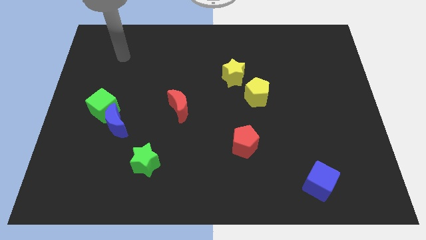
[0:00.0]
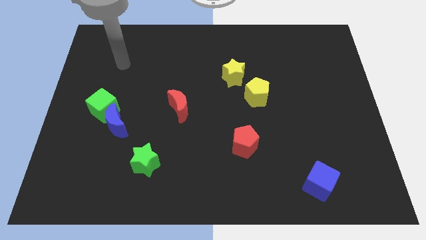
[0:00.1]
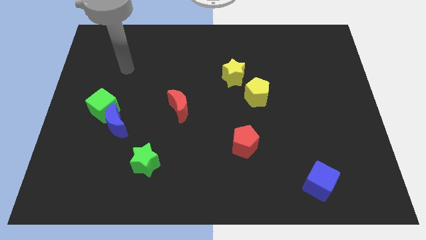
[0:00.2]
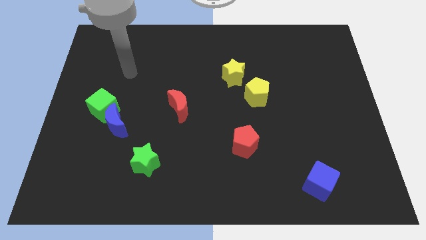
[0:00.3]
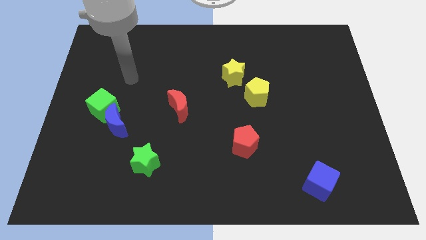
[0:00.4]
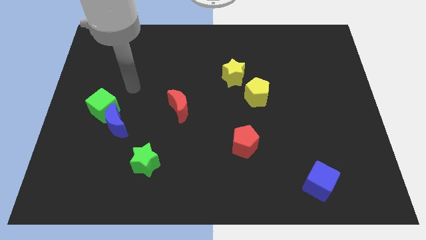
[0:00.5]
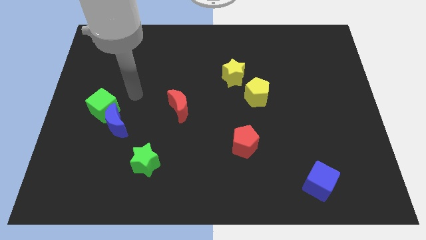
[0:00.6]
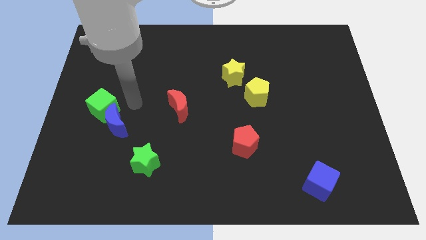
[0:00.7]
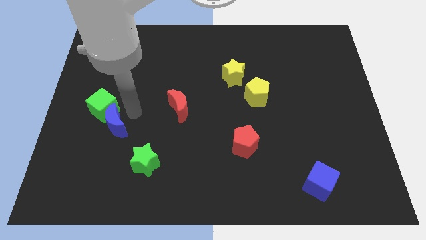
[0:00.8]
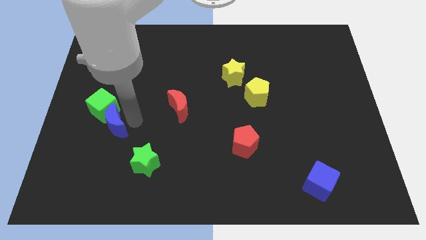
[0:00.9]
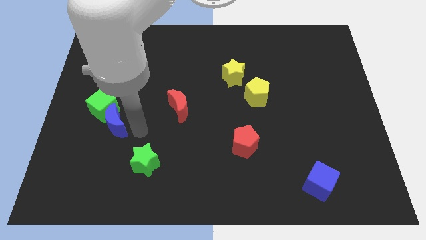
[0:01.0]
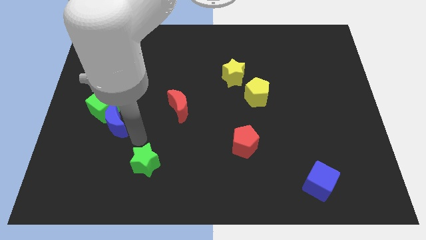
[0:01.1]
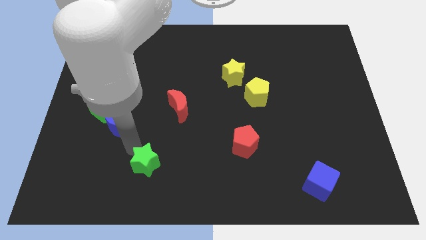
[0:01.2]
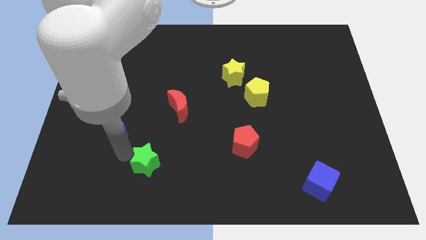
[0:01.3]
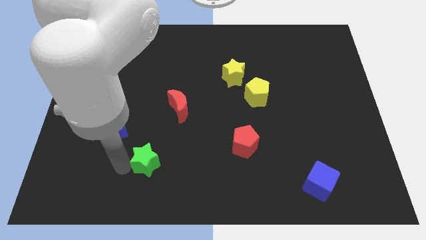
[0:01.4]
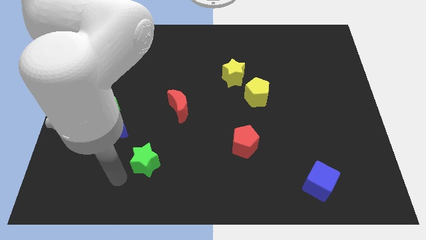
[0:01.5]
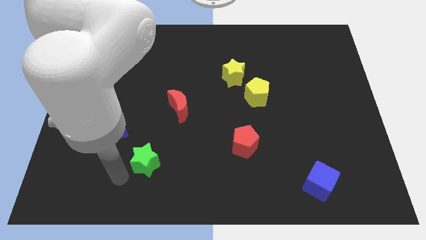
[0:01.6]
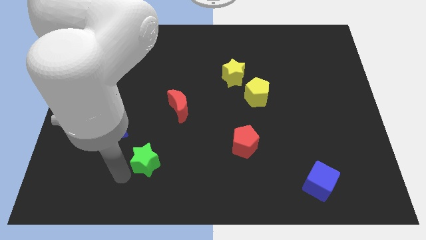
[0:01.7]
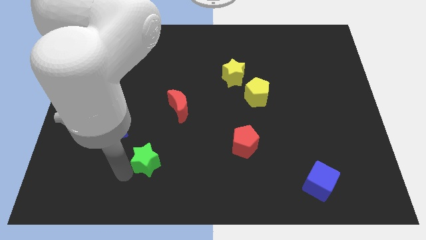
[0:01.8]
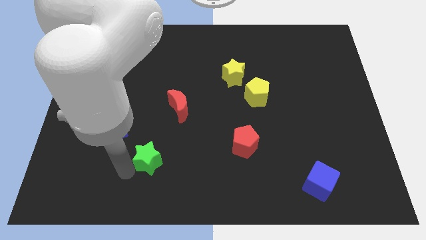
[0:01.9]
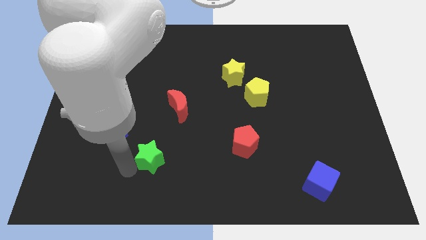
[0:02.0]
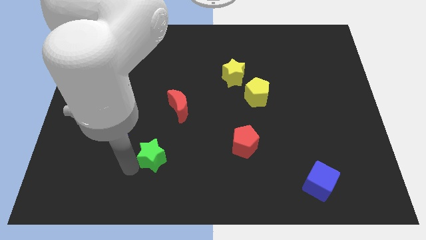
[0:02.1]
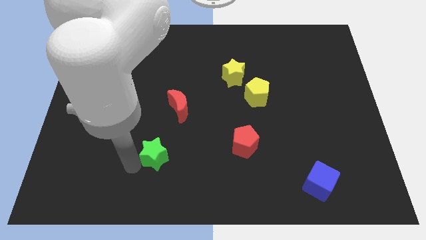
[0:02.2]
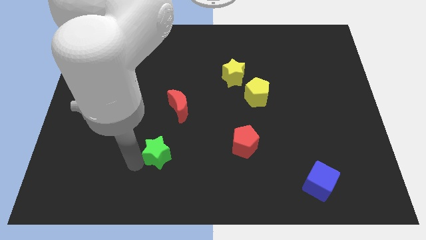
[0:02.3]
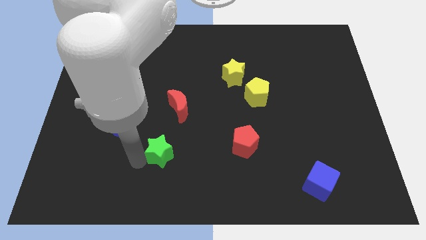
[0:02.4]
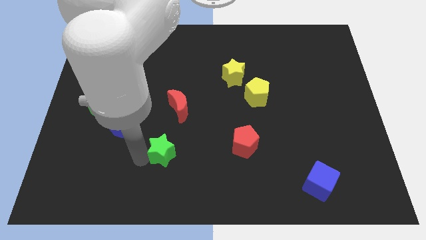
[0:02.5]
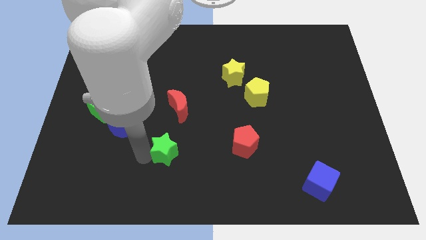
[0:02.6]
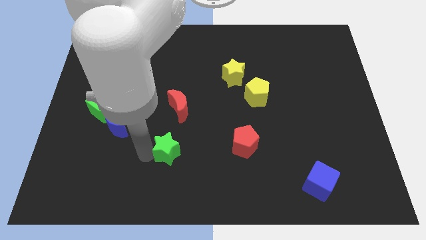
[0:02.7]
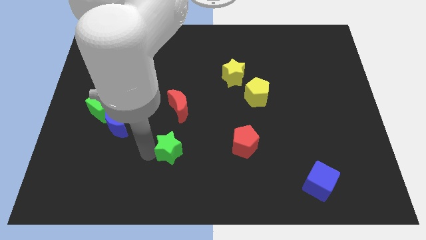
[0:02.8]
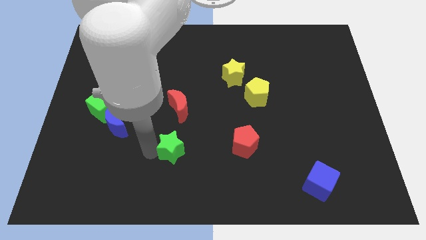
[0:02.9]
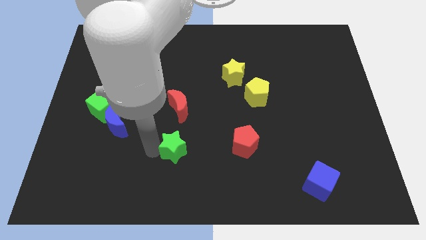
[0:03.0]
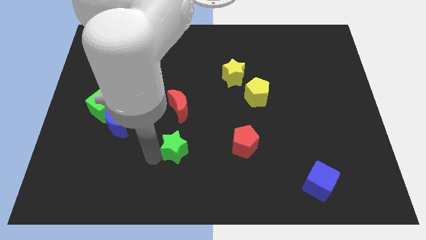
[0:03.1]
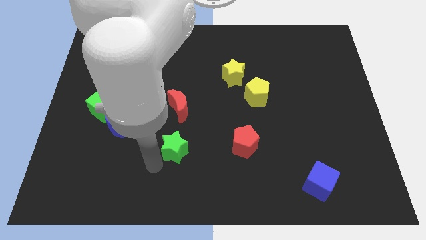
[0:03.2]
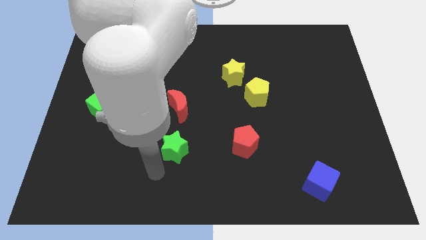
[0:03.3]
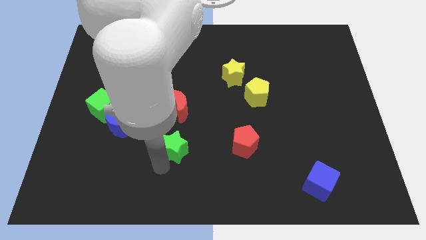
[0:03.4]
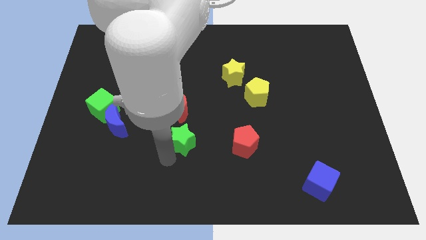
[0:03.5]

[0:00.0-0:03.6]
move the green star upwards and then right a little bit

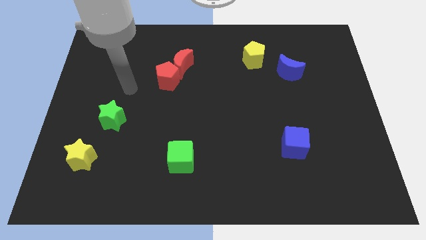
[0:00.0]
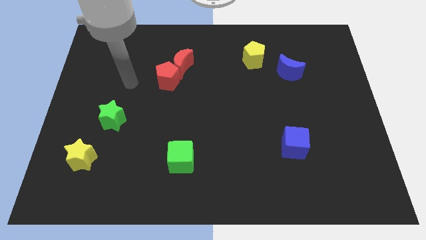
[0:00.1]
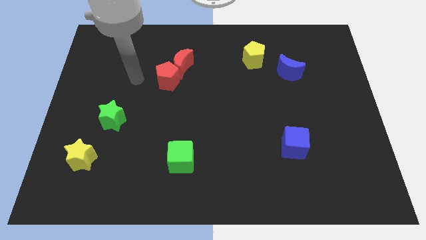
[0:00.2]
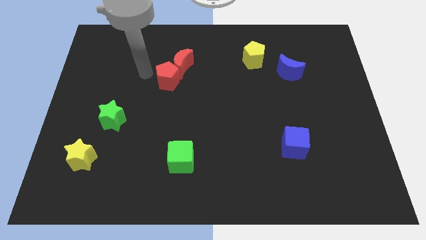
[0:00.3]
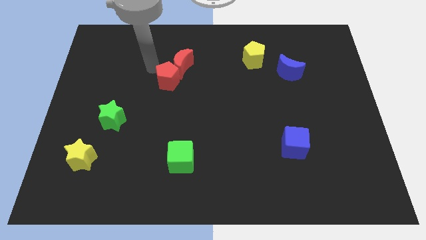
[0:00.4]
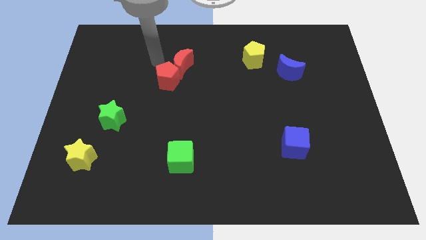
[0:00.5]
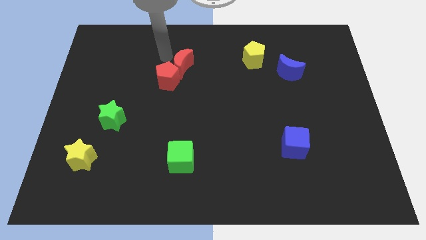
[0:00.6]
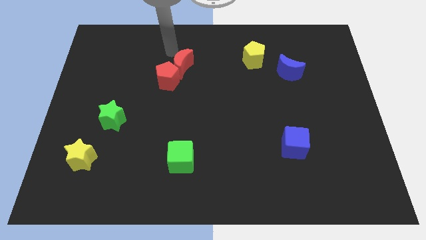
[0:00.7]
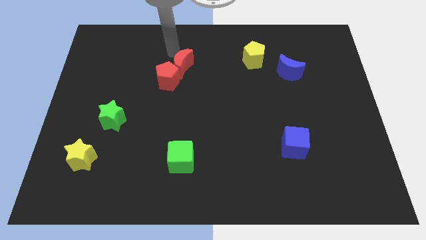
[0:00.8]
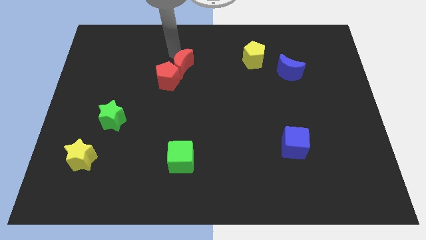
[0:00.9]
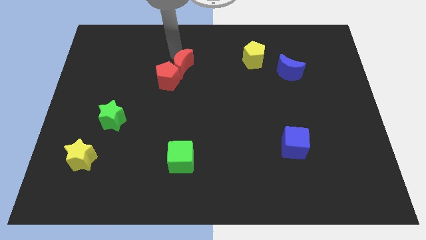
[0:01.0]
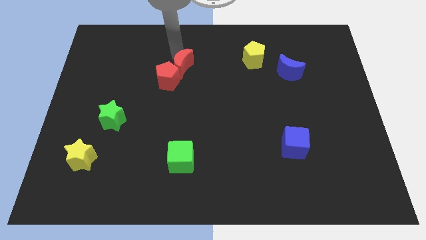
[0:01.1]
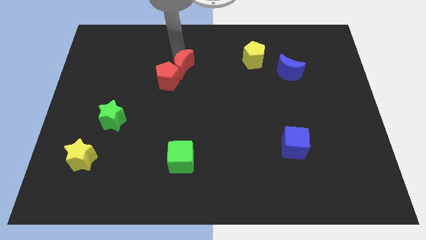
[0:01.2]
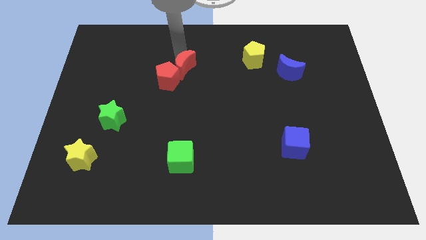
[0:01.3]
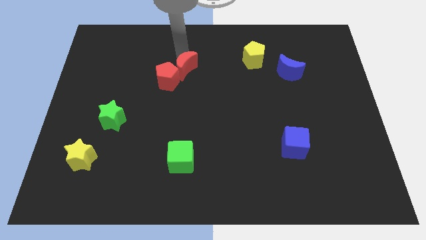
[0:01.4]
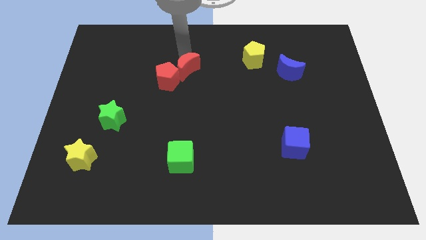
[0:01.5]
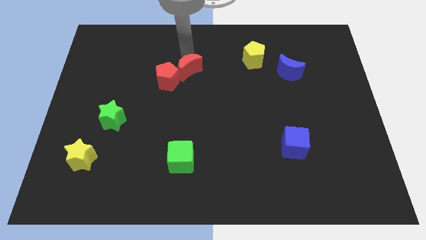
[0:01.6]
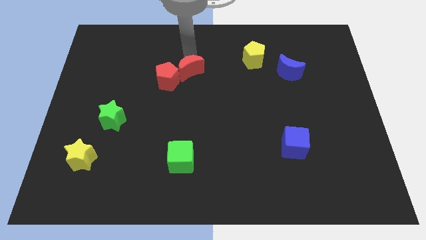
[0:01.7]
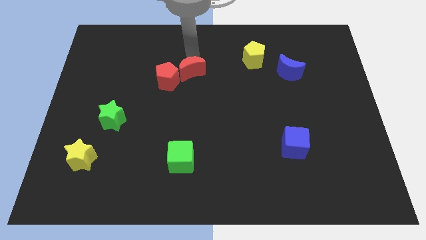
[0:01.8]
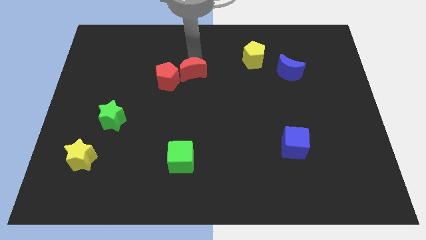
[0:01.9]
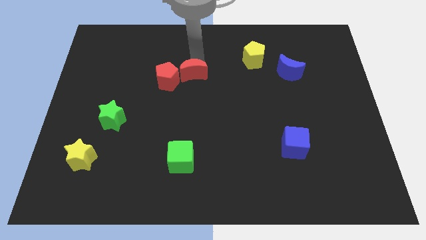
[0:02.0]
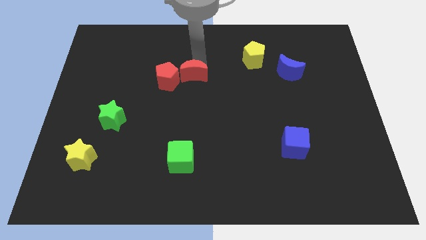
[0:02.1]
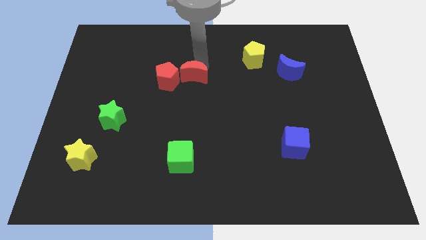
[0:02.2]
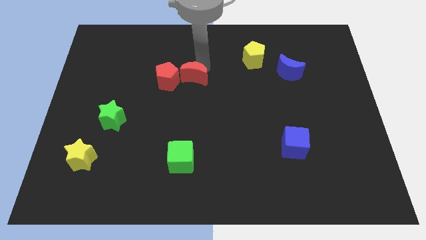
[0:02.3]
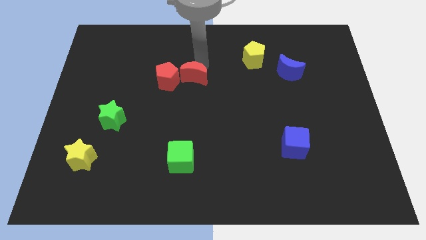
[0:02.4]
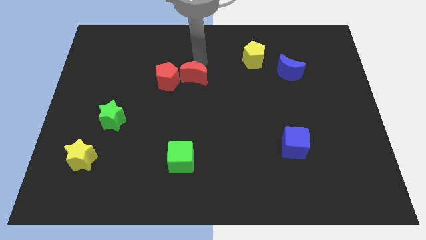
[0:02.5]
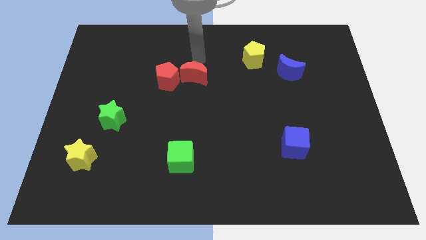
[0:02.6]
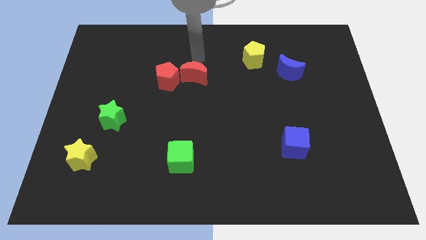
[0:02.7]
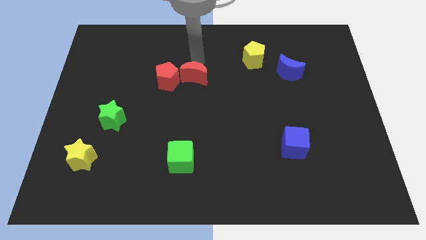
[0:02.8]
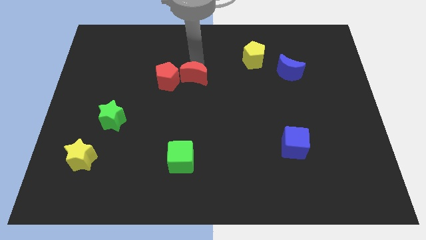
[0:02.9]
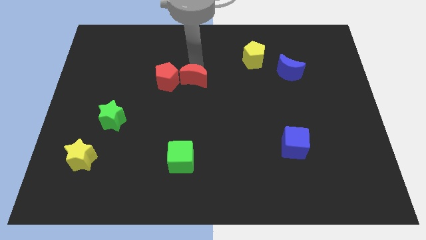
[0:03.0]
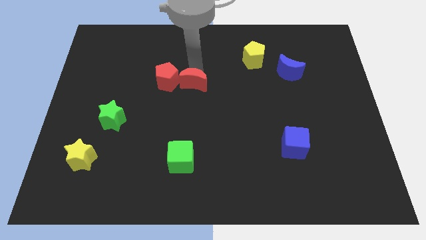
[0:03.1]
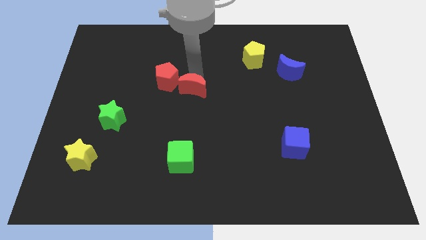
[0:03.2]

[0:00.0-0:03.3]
move the red moon downwards somewhat

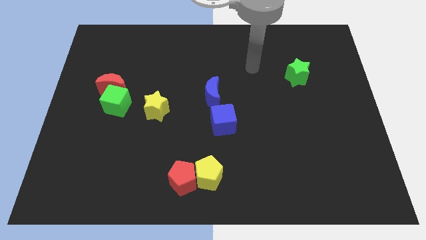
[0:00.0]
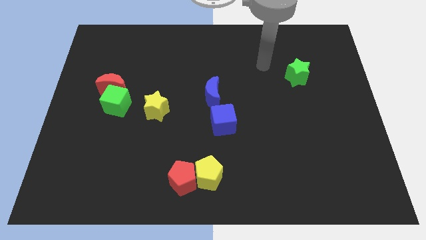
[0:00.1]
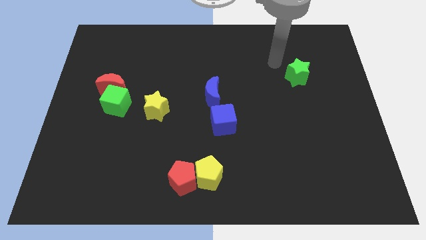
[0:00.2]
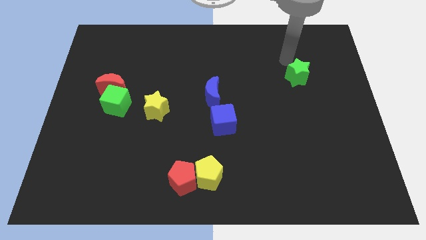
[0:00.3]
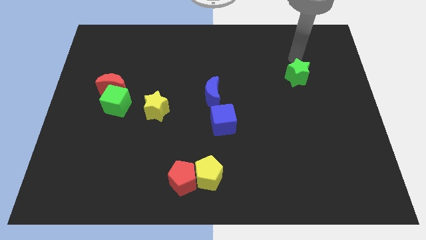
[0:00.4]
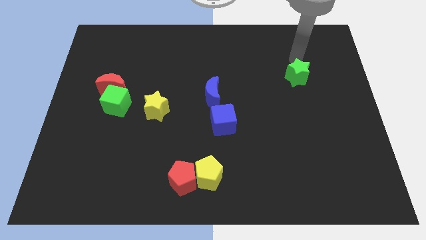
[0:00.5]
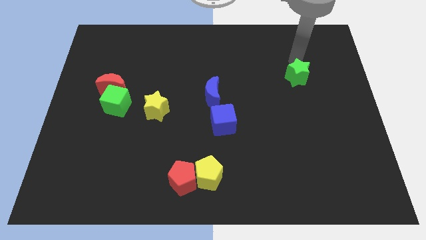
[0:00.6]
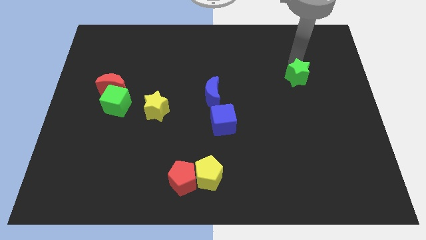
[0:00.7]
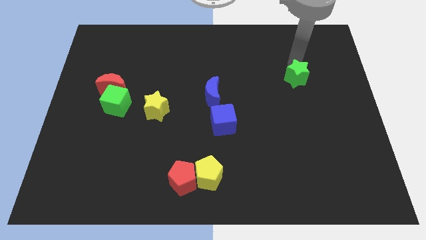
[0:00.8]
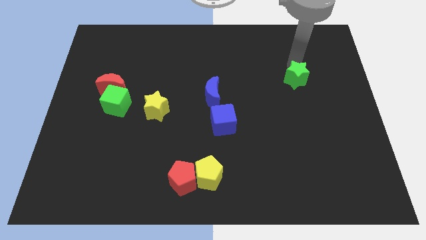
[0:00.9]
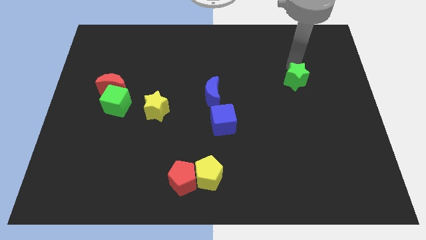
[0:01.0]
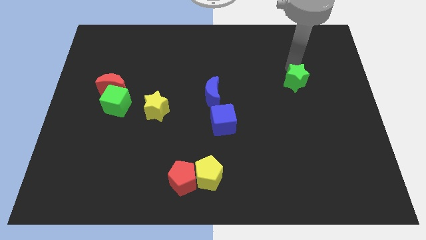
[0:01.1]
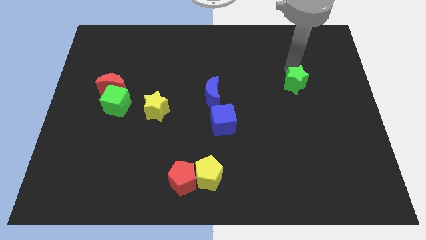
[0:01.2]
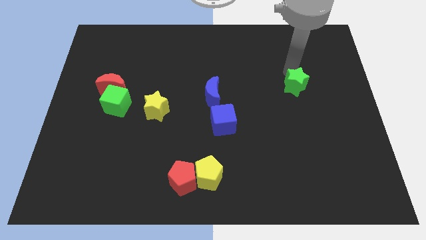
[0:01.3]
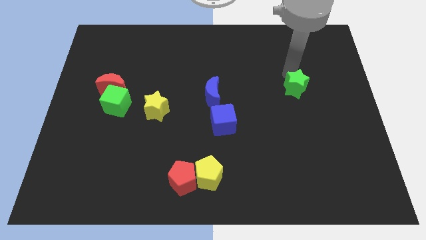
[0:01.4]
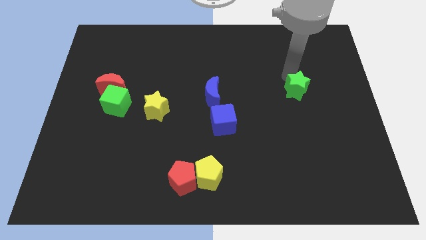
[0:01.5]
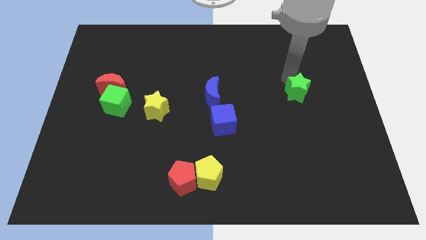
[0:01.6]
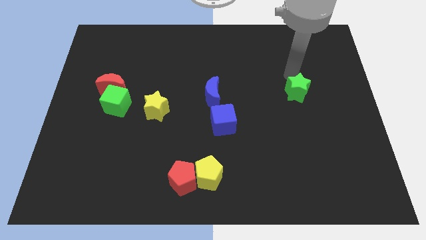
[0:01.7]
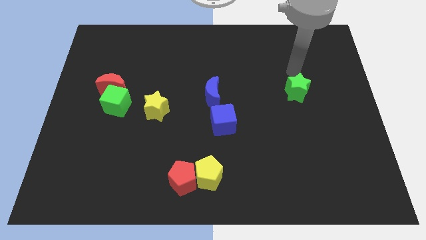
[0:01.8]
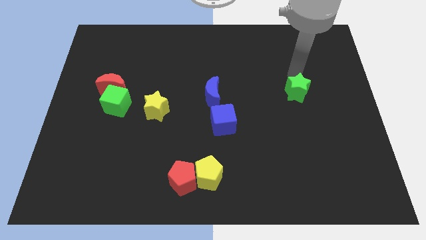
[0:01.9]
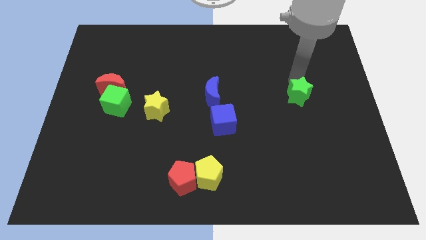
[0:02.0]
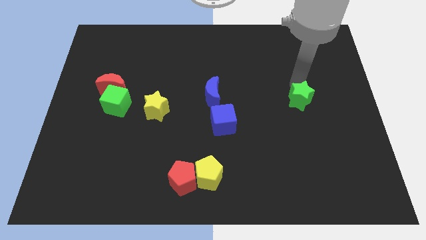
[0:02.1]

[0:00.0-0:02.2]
move the green star downwards a little
